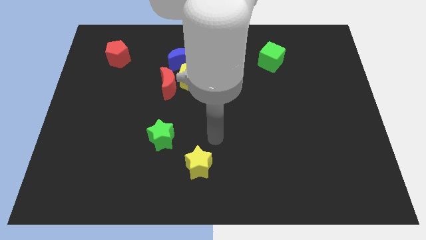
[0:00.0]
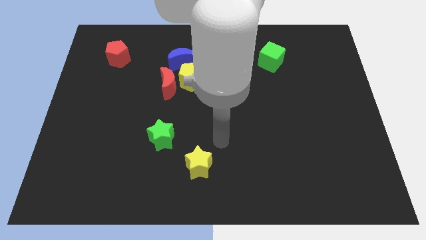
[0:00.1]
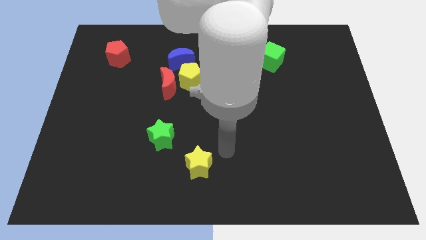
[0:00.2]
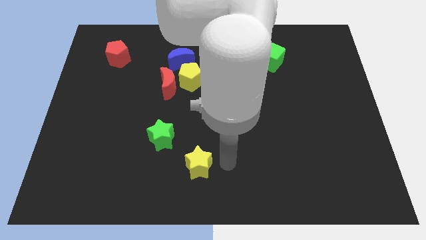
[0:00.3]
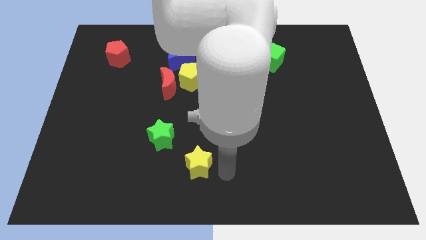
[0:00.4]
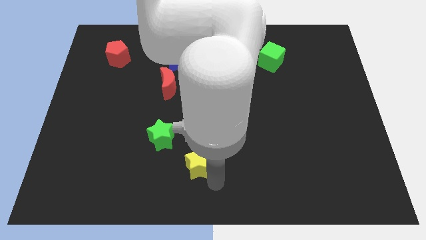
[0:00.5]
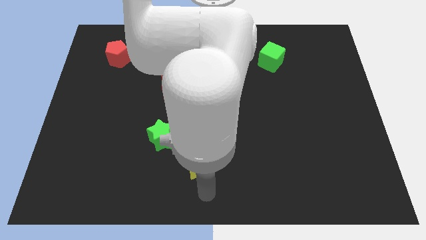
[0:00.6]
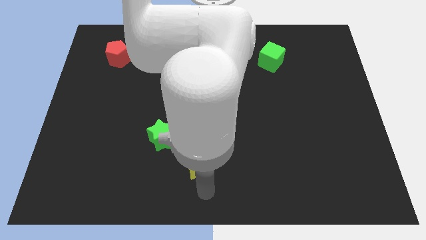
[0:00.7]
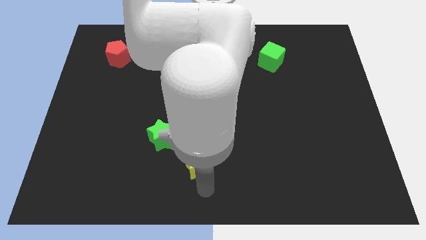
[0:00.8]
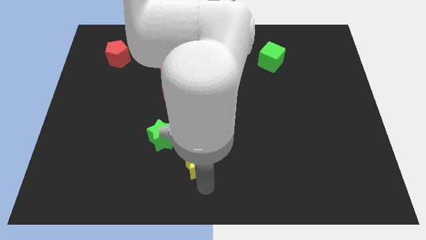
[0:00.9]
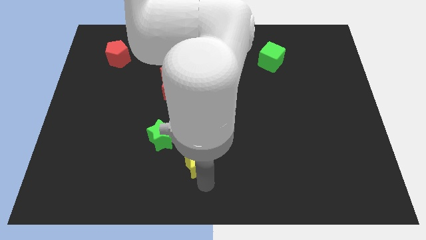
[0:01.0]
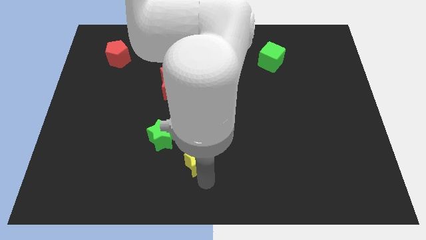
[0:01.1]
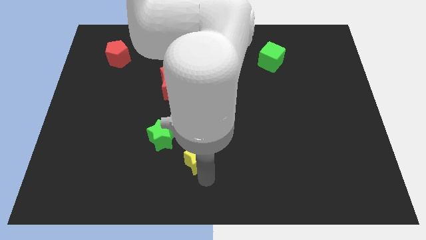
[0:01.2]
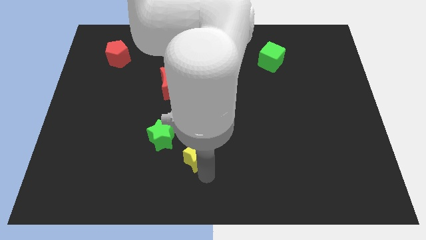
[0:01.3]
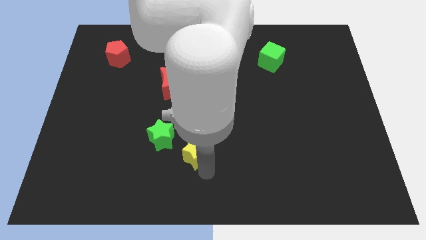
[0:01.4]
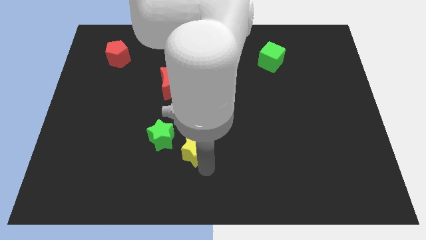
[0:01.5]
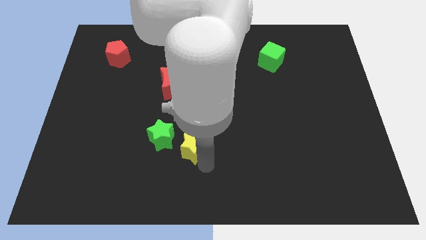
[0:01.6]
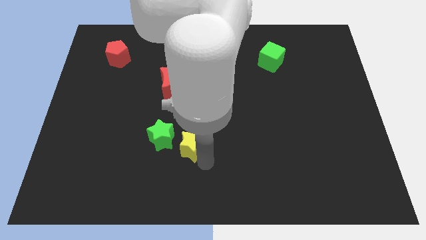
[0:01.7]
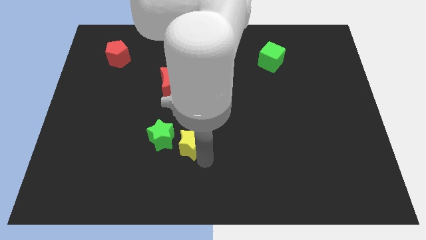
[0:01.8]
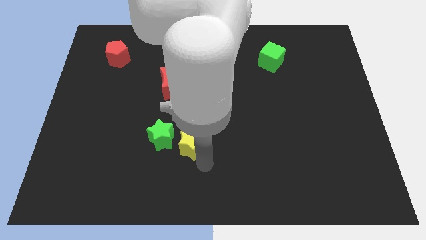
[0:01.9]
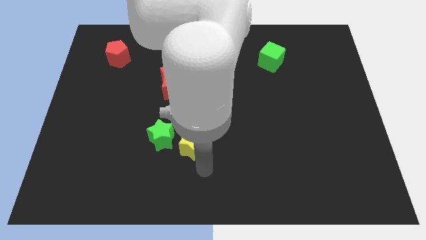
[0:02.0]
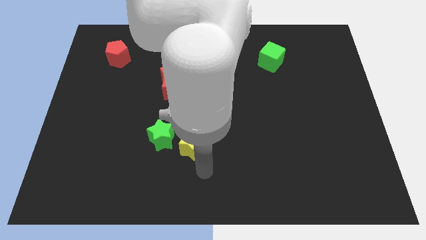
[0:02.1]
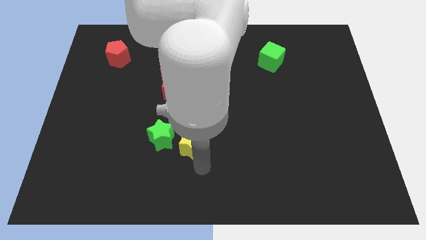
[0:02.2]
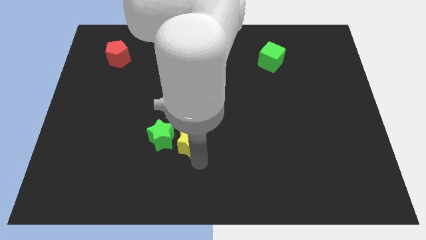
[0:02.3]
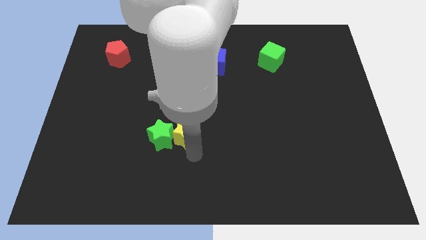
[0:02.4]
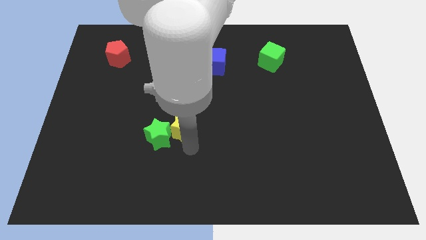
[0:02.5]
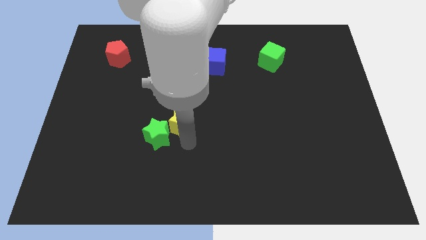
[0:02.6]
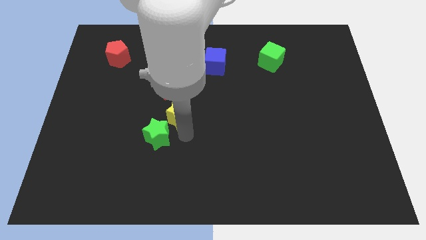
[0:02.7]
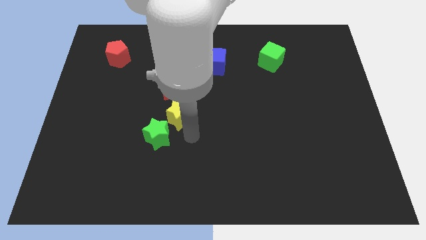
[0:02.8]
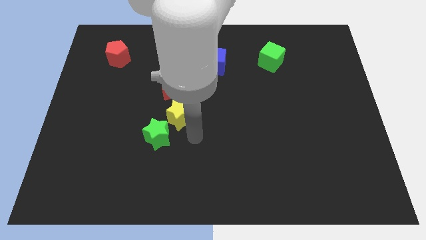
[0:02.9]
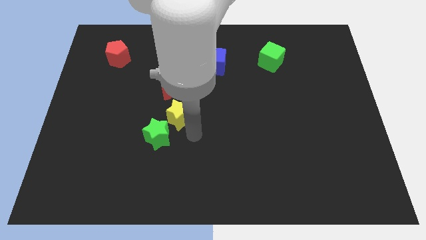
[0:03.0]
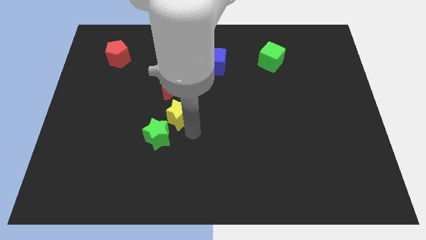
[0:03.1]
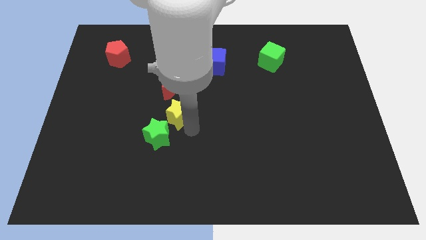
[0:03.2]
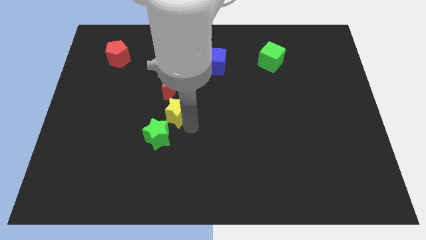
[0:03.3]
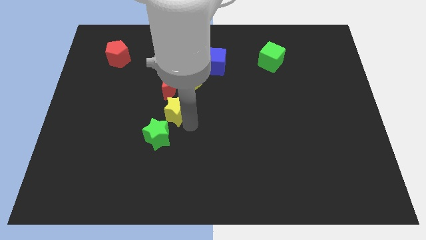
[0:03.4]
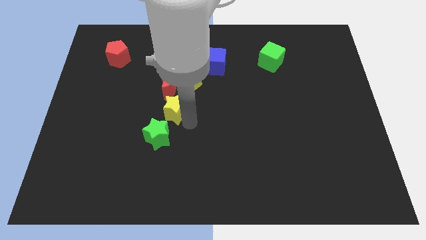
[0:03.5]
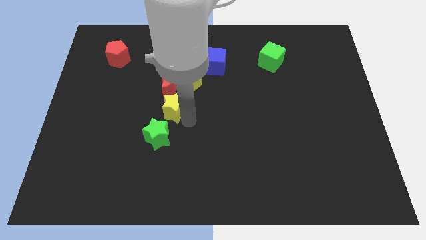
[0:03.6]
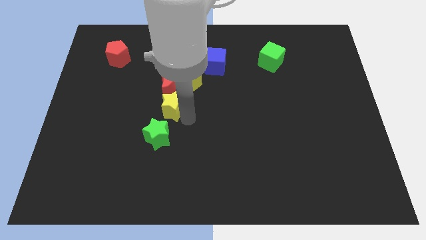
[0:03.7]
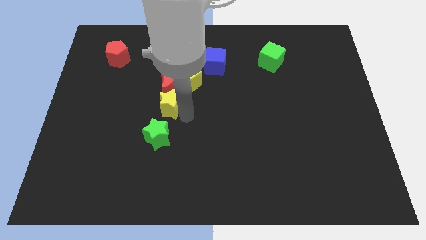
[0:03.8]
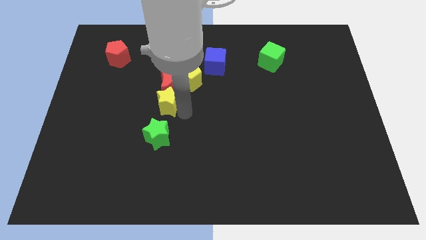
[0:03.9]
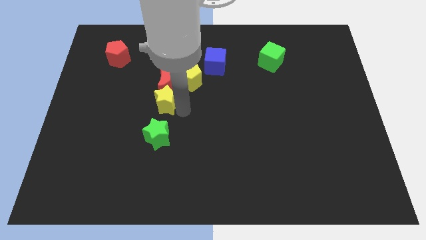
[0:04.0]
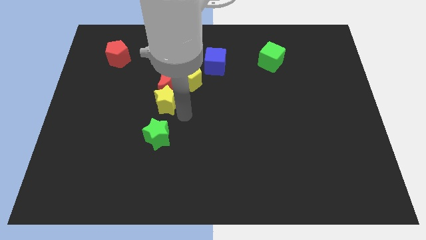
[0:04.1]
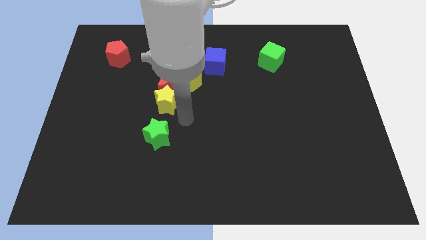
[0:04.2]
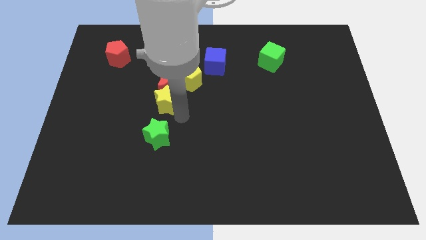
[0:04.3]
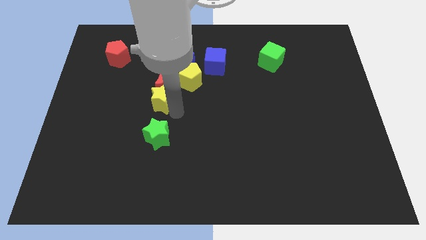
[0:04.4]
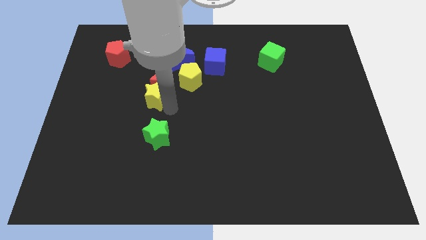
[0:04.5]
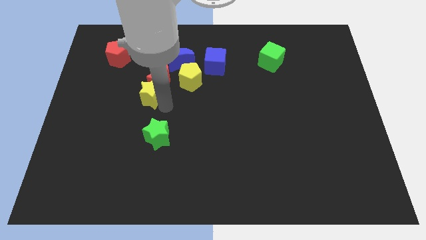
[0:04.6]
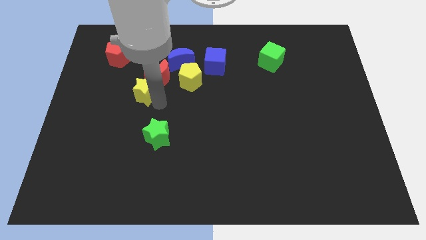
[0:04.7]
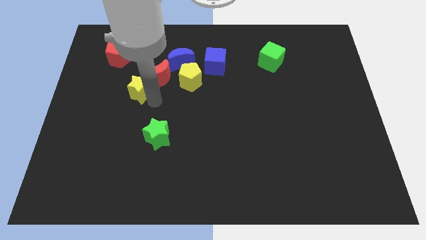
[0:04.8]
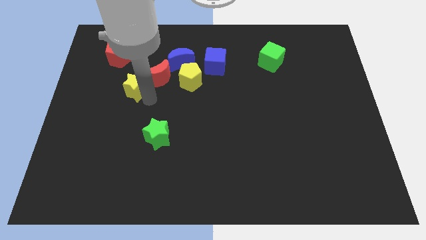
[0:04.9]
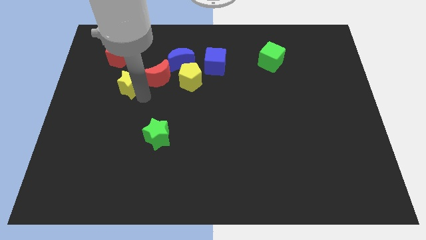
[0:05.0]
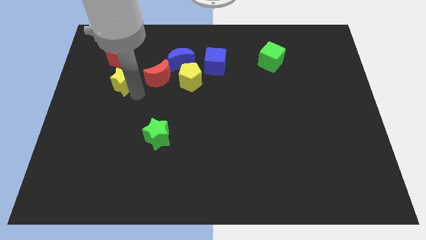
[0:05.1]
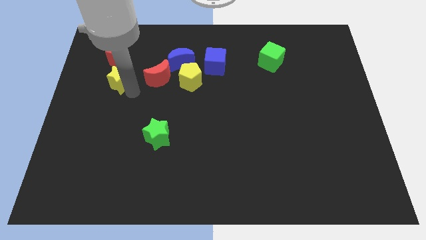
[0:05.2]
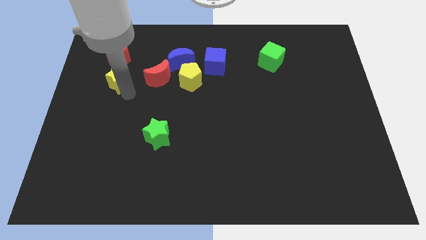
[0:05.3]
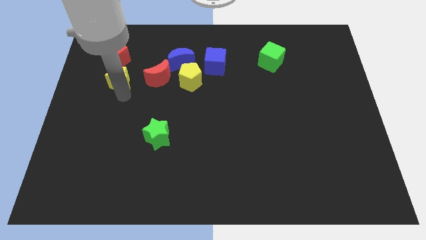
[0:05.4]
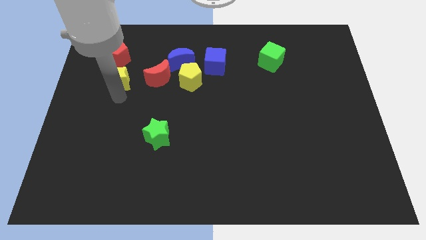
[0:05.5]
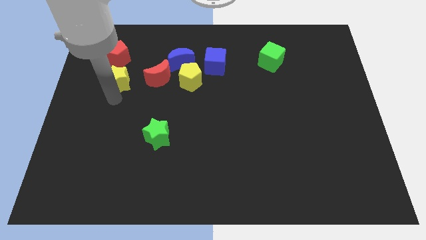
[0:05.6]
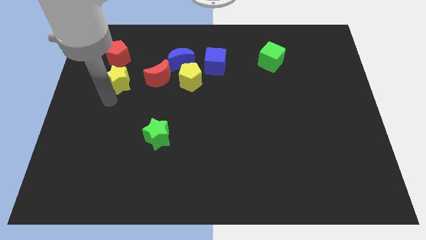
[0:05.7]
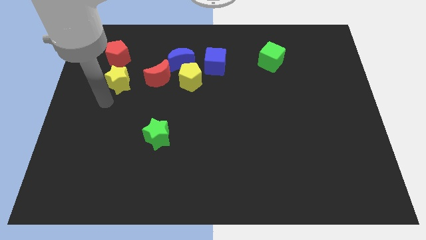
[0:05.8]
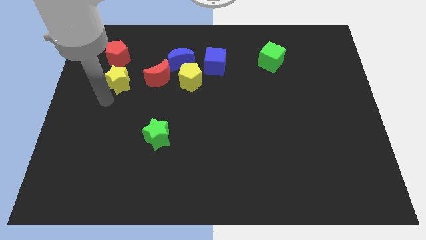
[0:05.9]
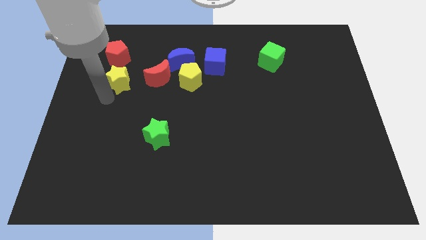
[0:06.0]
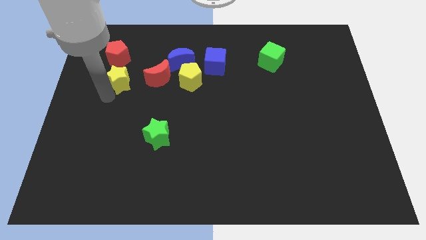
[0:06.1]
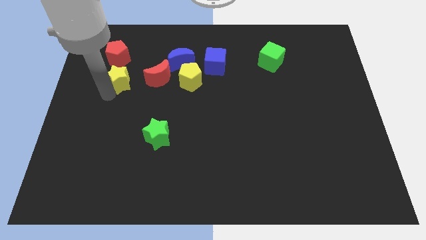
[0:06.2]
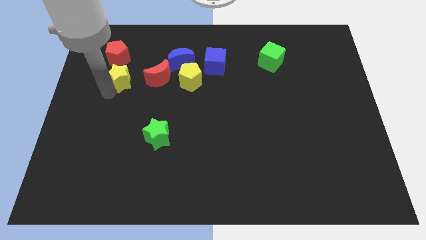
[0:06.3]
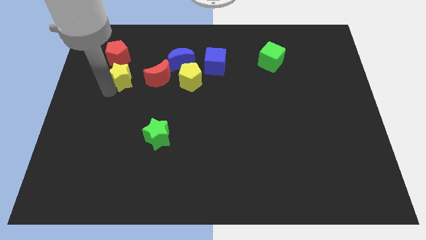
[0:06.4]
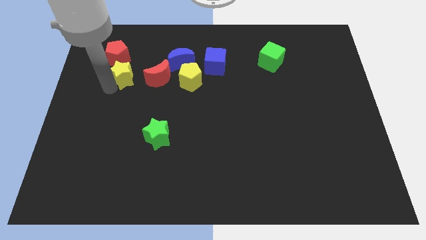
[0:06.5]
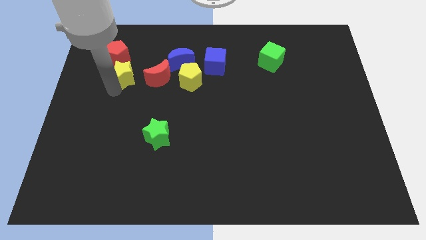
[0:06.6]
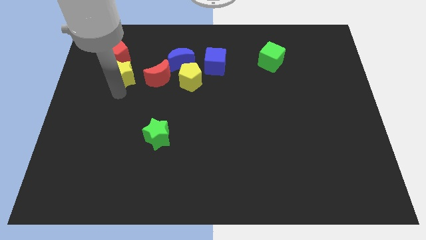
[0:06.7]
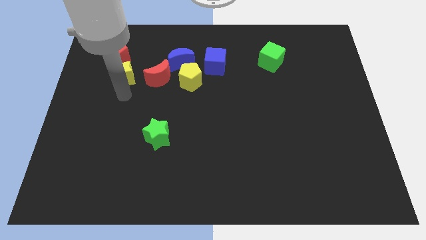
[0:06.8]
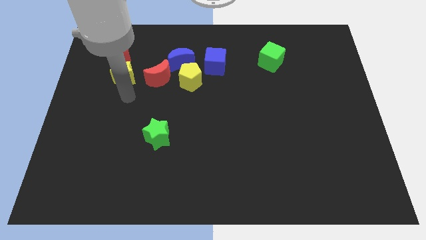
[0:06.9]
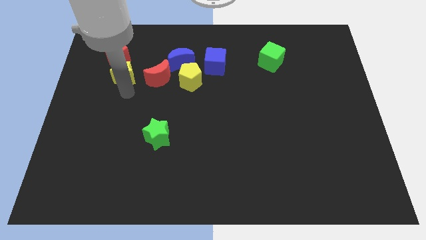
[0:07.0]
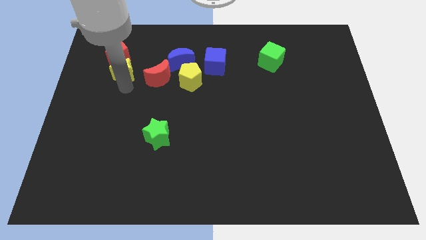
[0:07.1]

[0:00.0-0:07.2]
push the yellow star to the red pentagon
